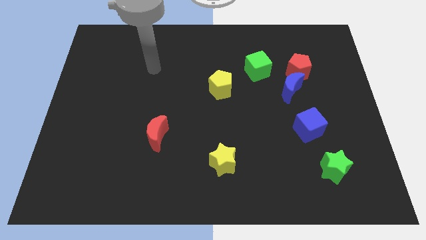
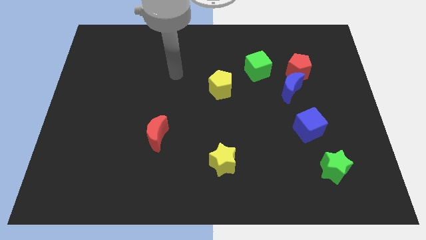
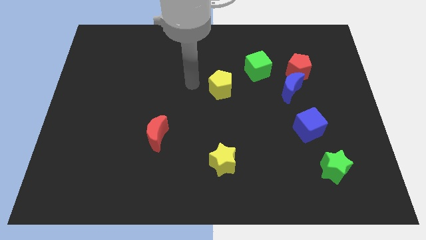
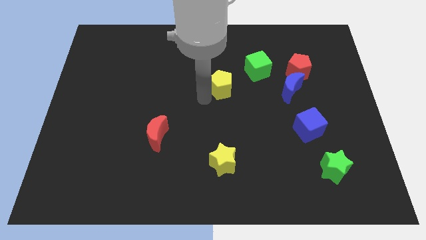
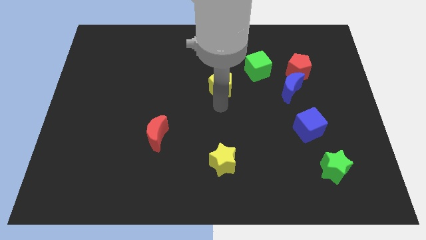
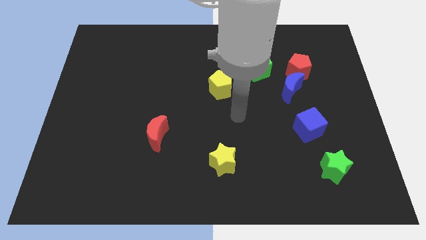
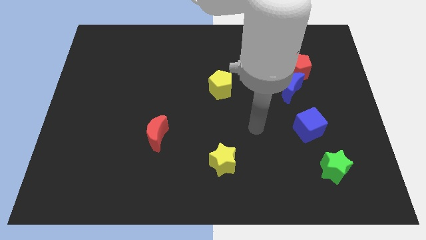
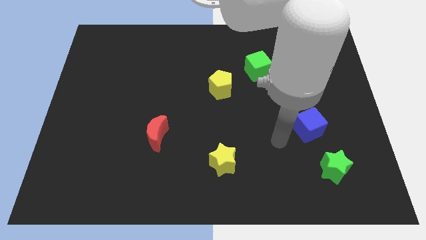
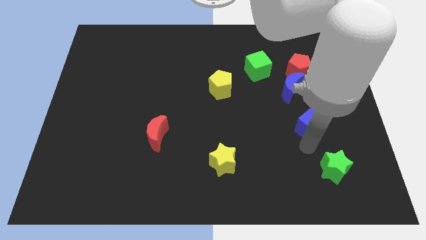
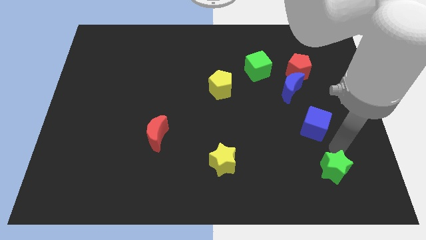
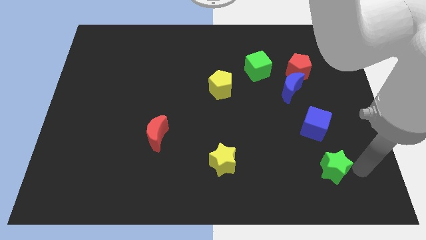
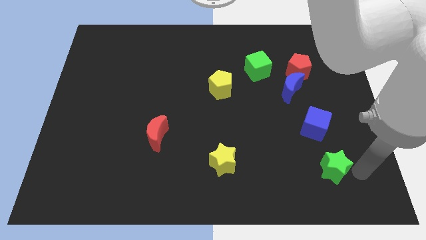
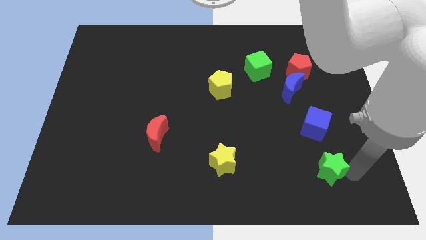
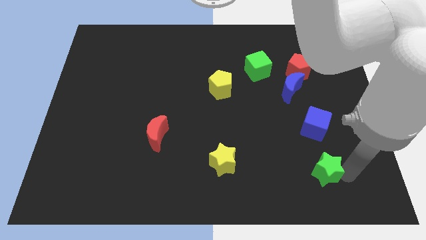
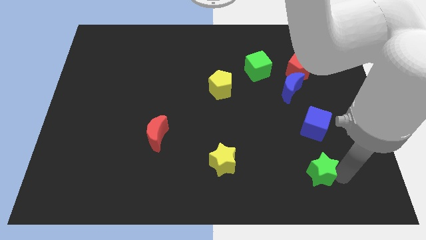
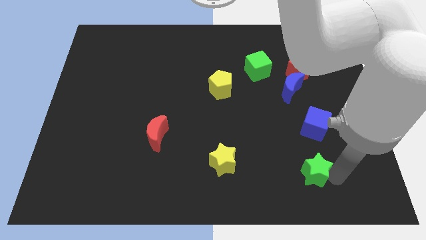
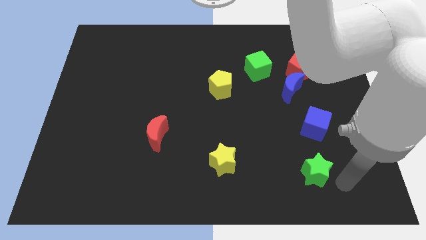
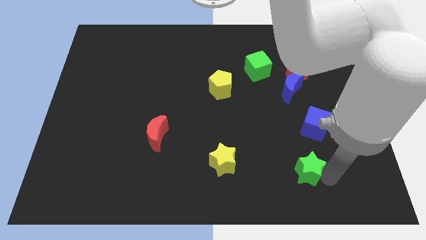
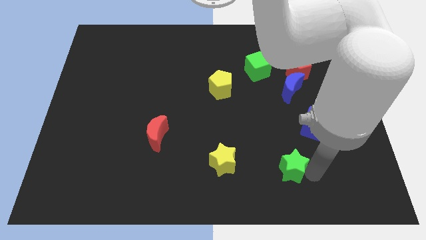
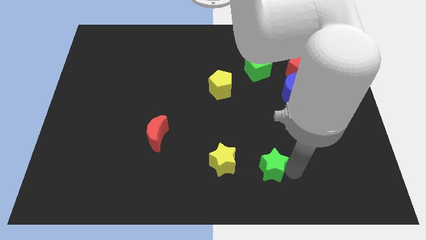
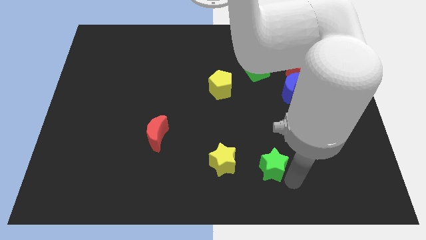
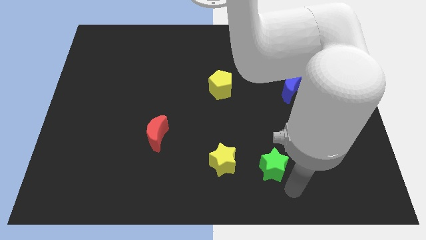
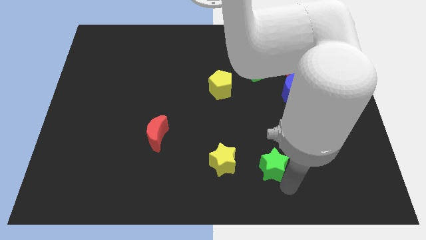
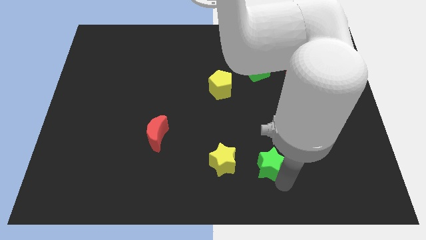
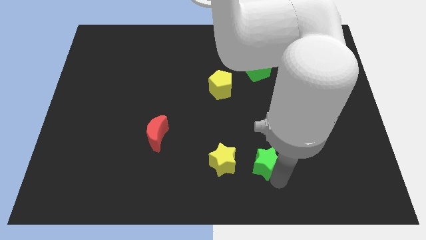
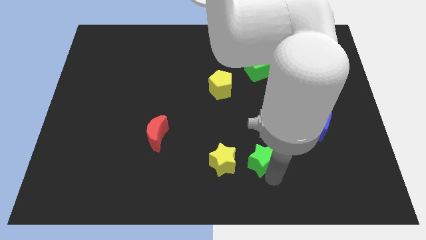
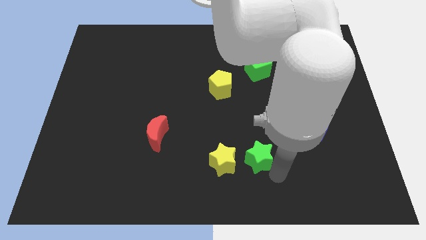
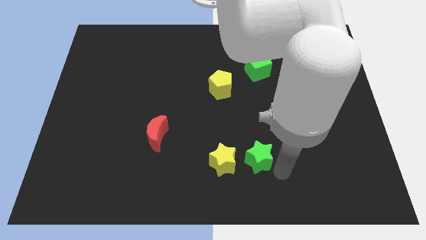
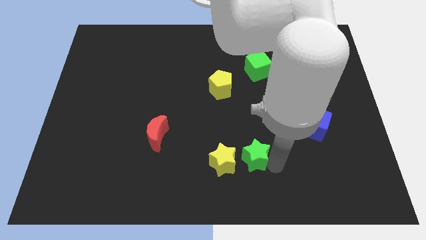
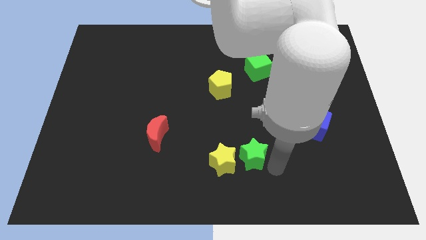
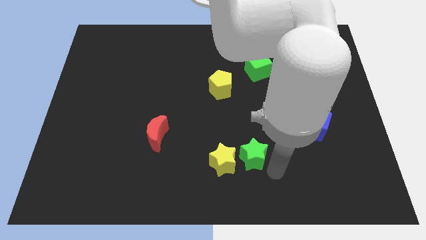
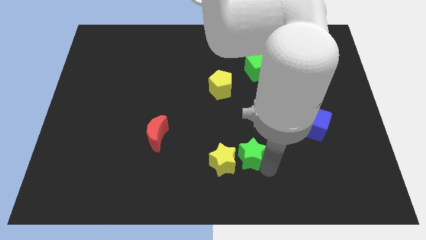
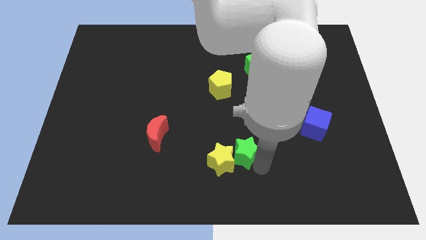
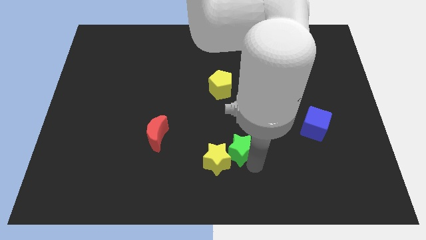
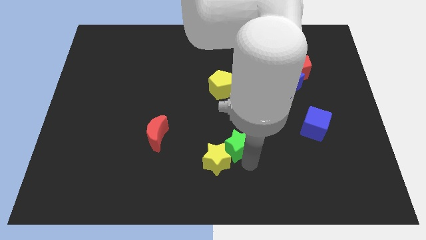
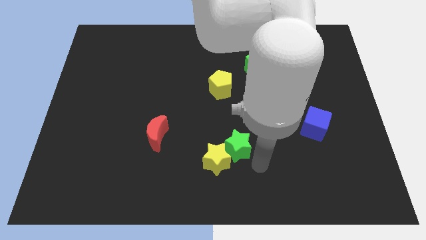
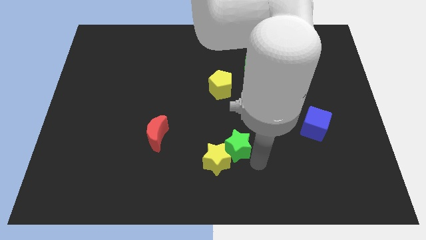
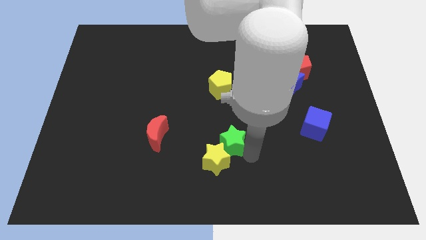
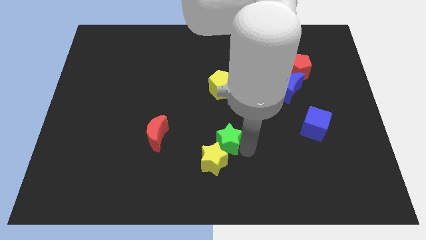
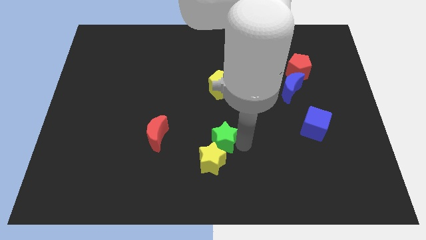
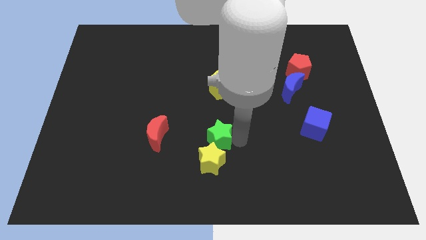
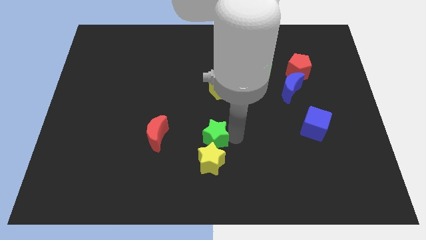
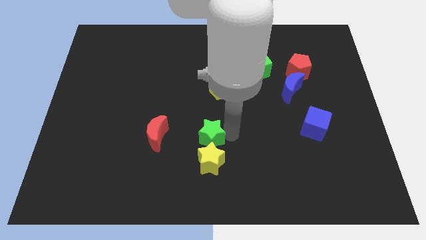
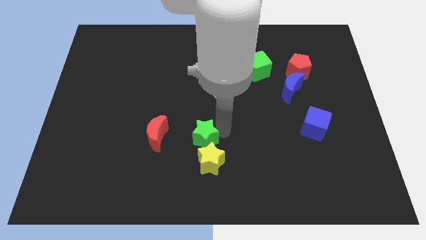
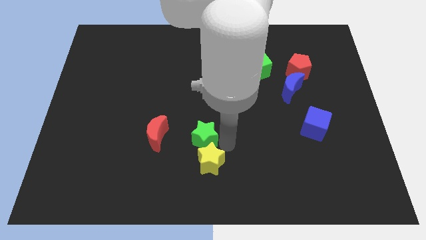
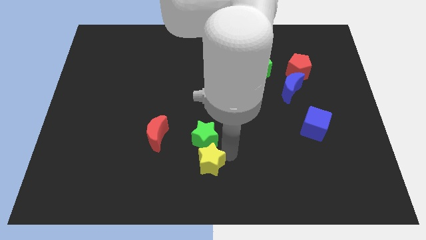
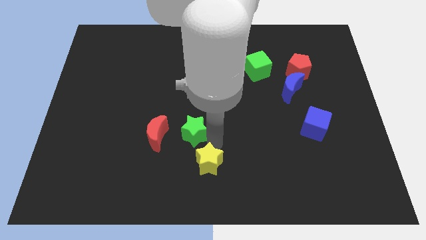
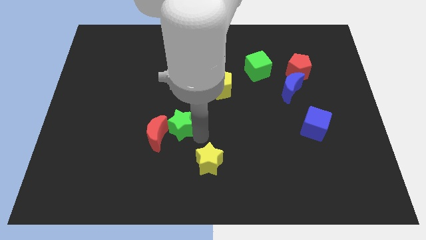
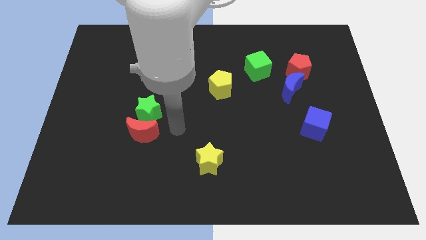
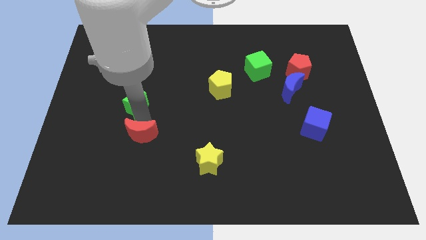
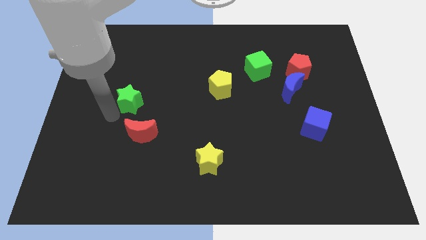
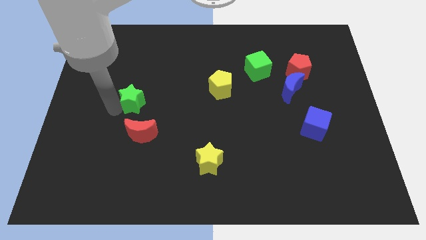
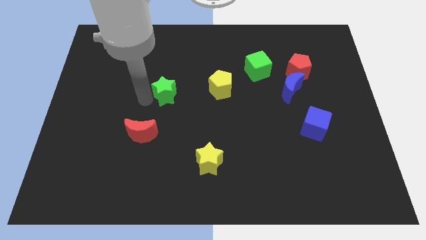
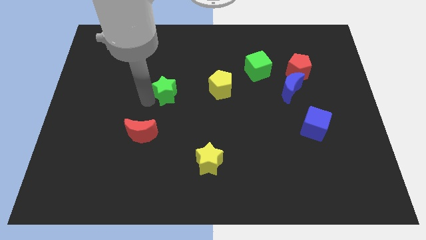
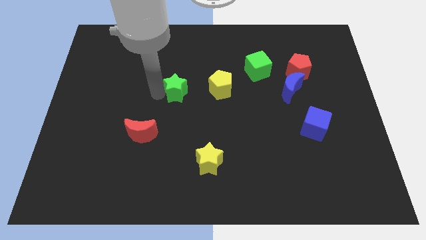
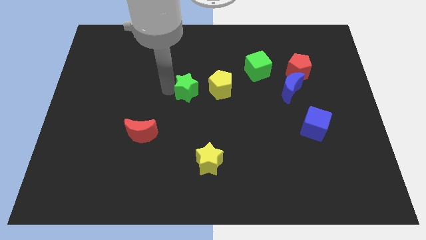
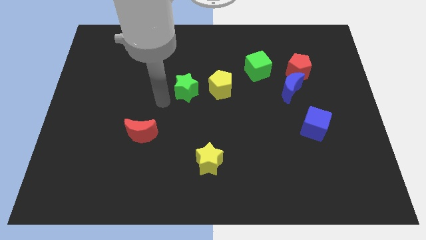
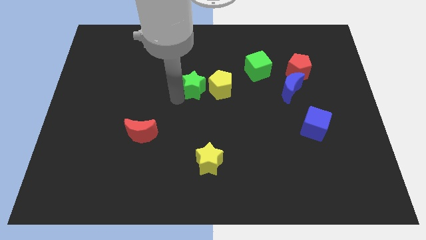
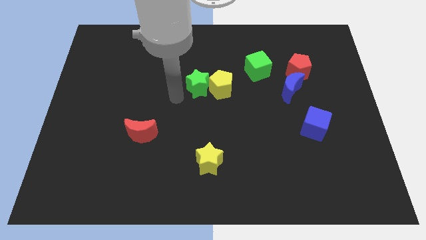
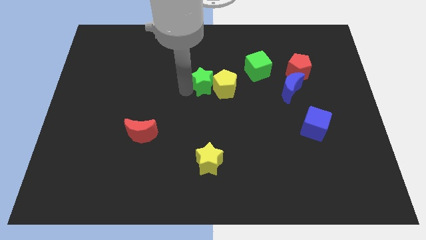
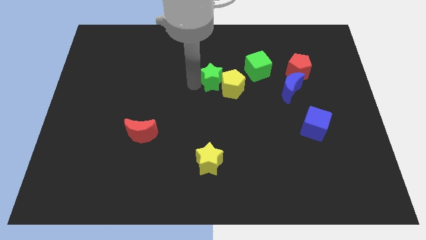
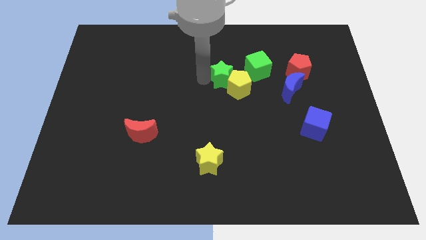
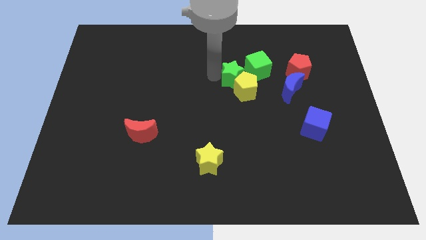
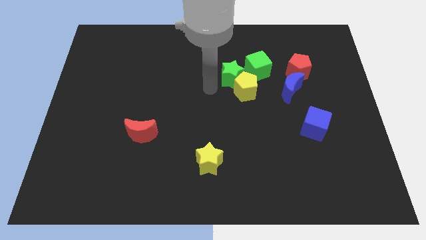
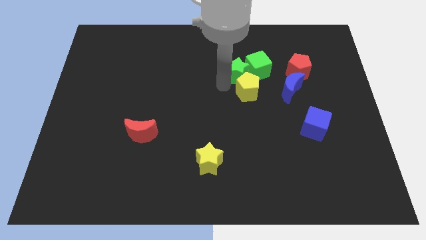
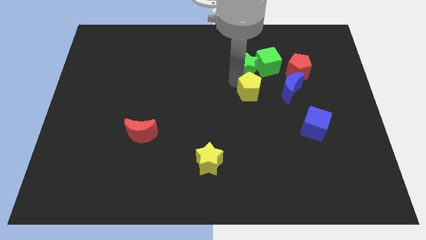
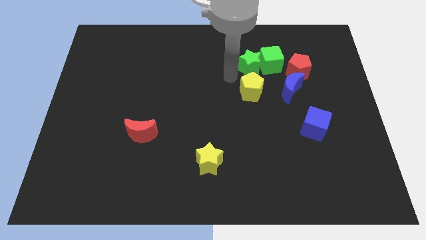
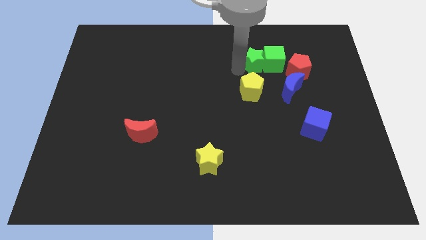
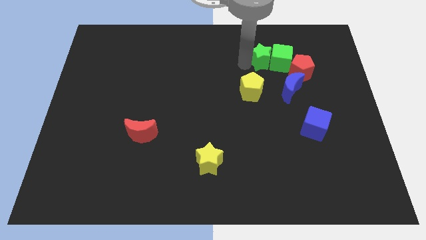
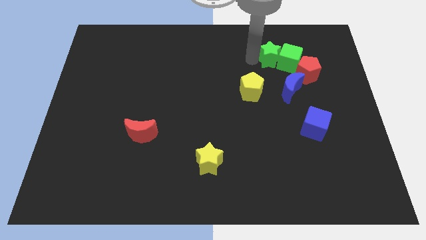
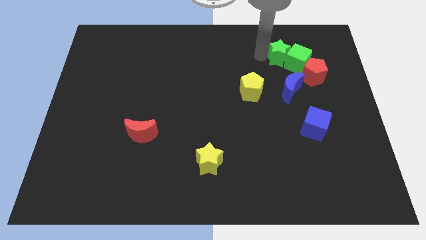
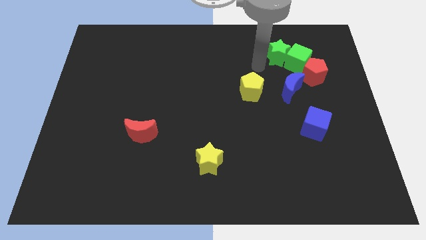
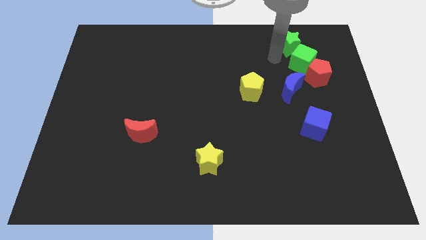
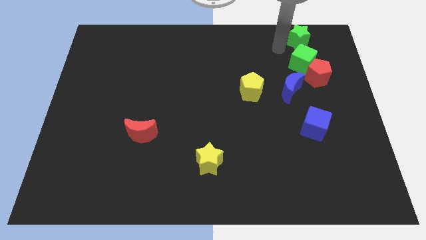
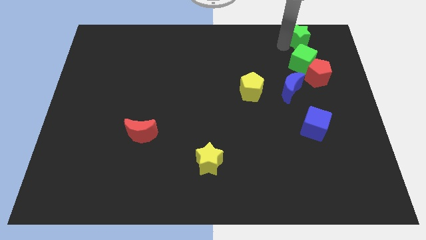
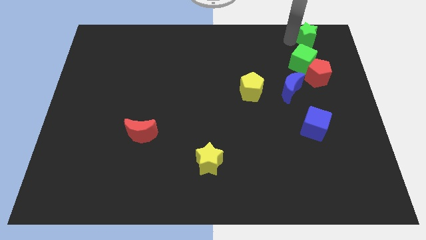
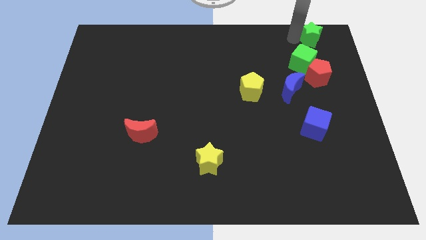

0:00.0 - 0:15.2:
push the green star to the top right
